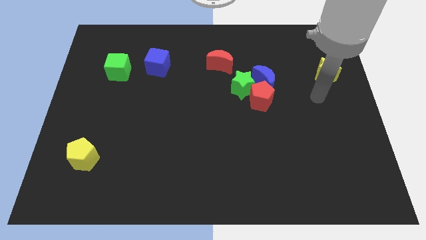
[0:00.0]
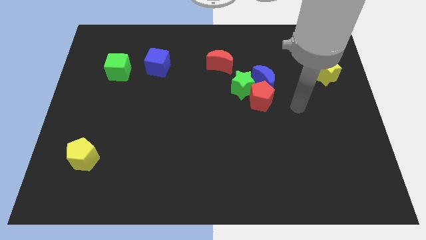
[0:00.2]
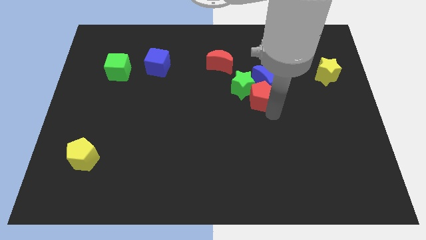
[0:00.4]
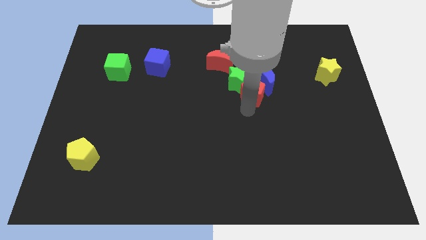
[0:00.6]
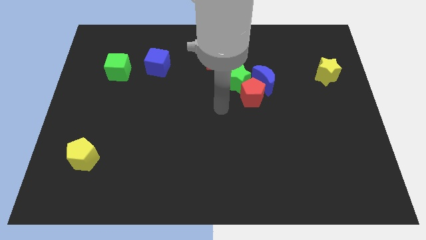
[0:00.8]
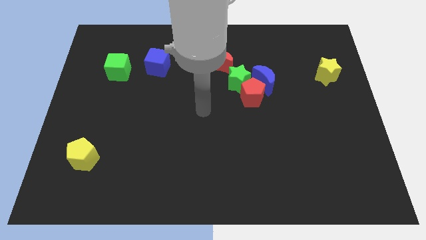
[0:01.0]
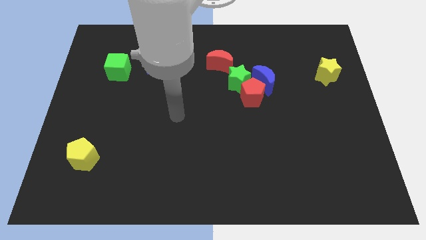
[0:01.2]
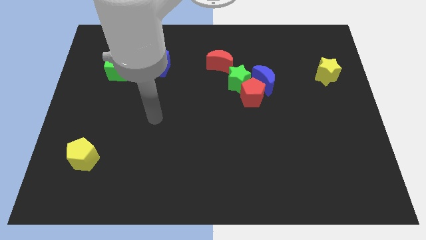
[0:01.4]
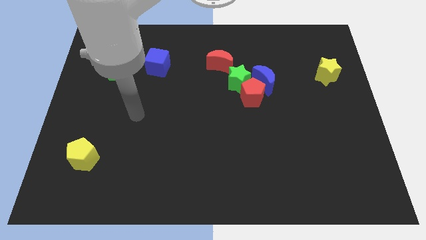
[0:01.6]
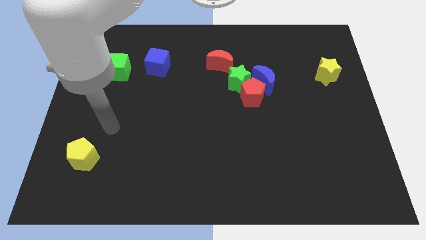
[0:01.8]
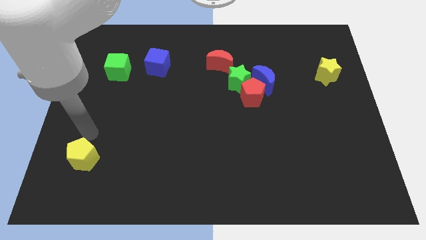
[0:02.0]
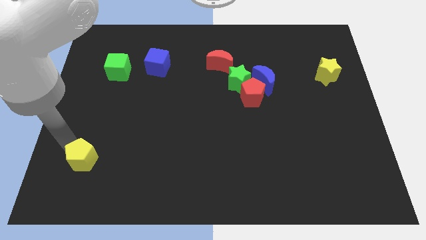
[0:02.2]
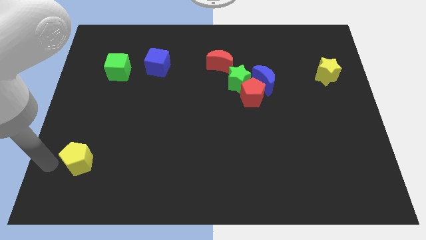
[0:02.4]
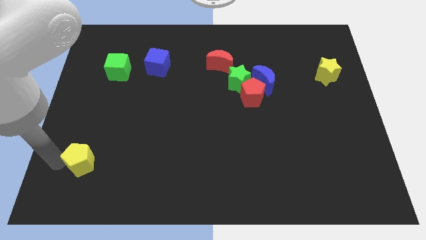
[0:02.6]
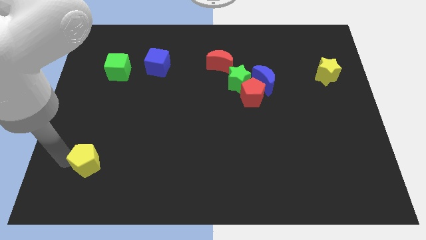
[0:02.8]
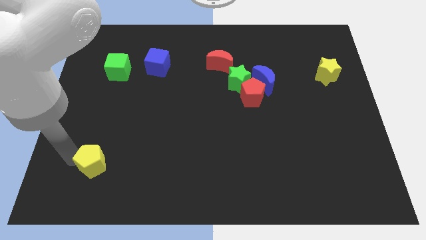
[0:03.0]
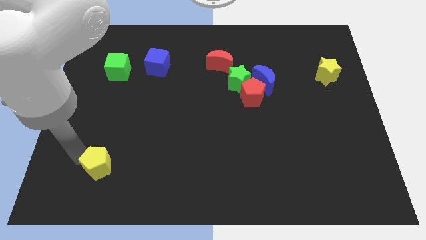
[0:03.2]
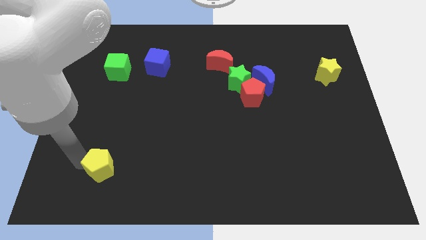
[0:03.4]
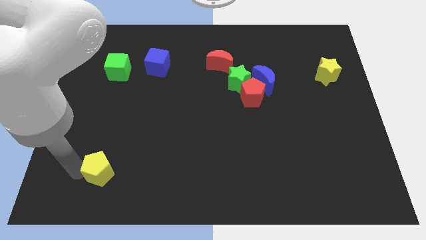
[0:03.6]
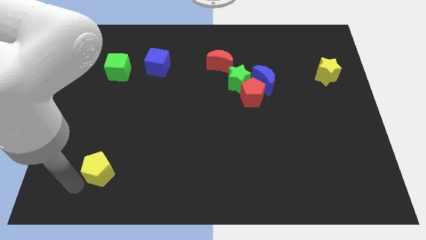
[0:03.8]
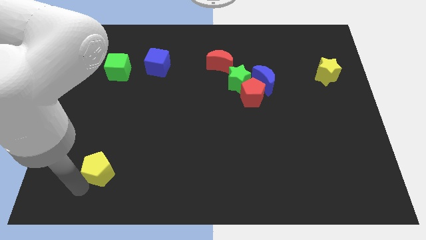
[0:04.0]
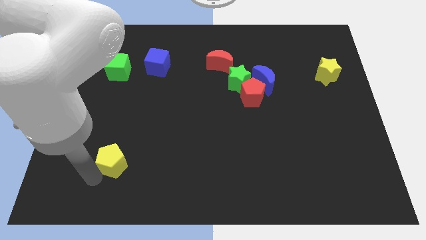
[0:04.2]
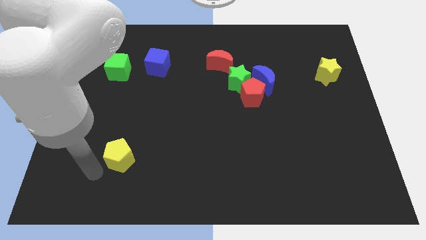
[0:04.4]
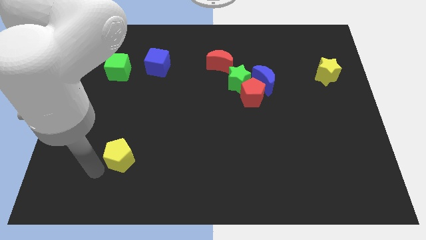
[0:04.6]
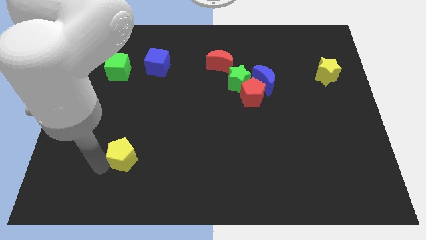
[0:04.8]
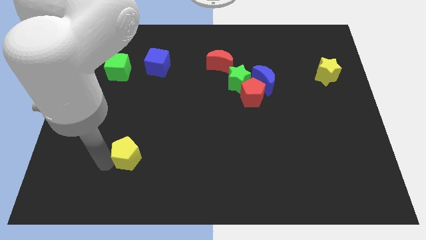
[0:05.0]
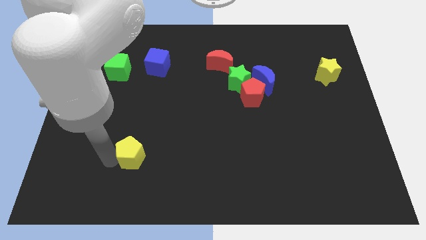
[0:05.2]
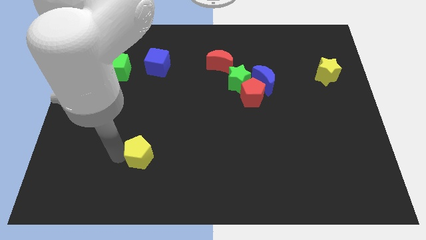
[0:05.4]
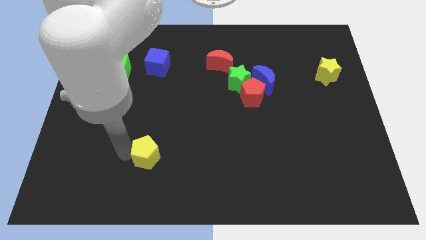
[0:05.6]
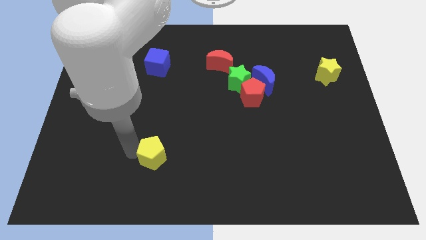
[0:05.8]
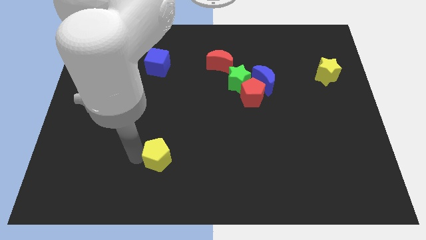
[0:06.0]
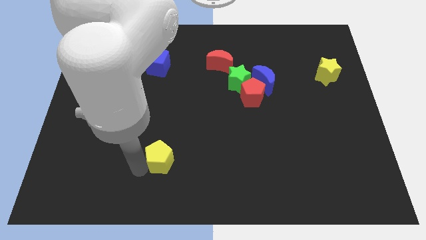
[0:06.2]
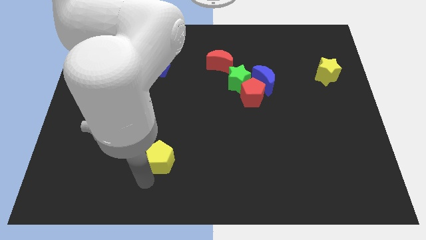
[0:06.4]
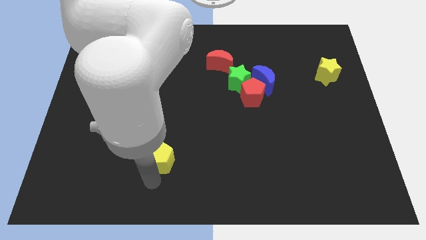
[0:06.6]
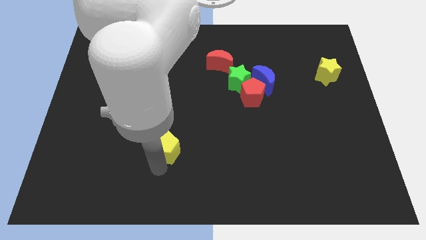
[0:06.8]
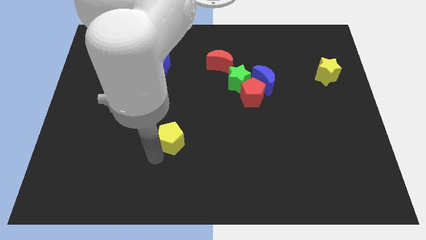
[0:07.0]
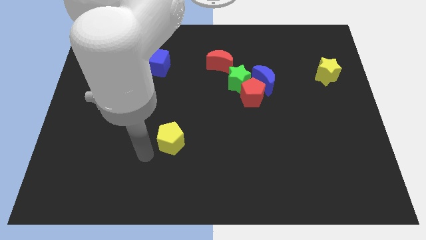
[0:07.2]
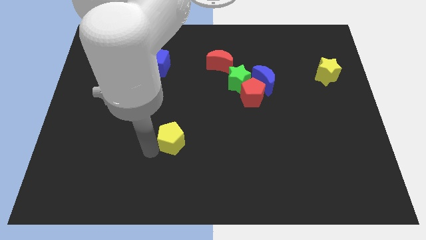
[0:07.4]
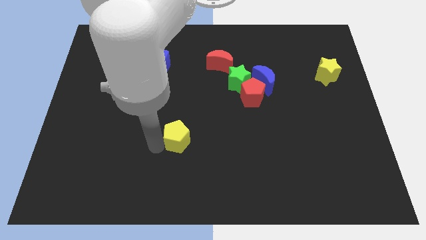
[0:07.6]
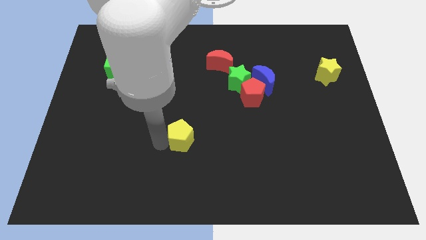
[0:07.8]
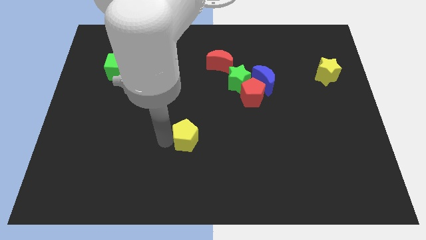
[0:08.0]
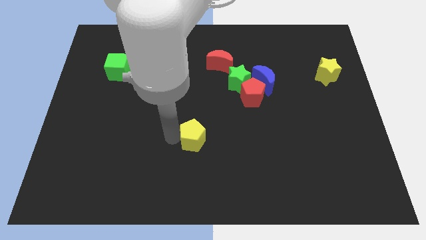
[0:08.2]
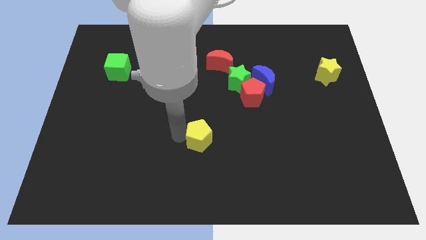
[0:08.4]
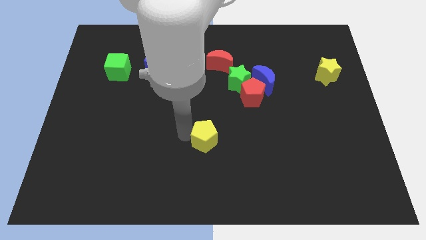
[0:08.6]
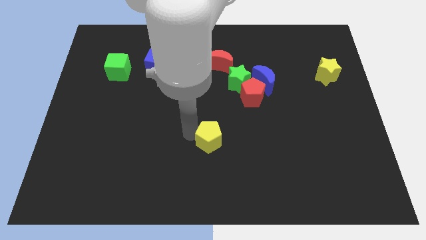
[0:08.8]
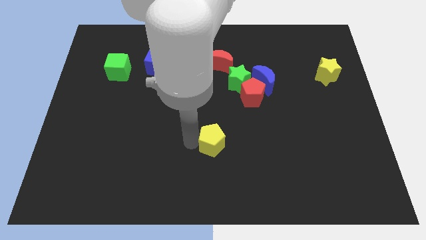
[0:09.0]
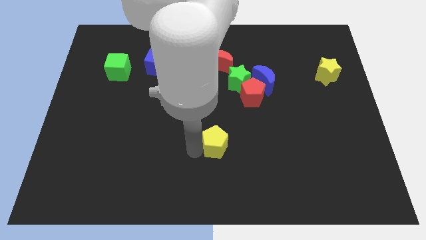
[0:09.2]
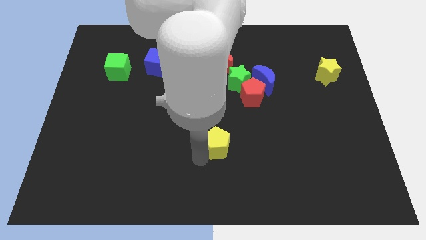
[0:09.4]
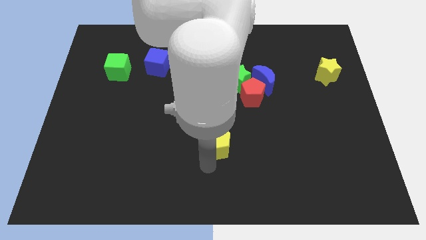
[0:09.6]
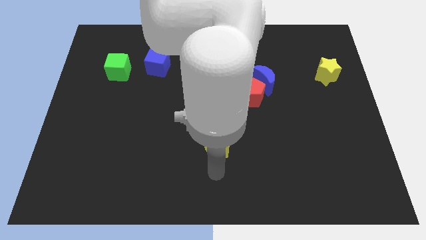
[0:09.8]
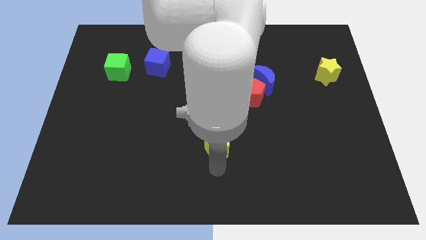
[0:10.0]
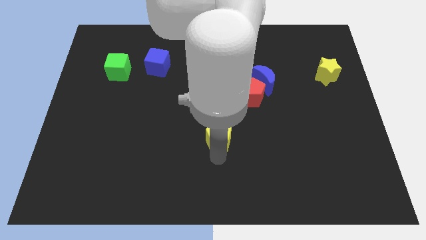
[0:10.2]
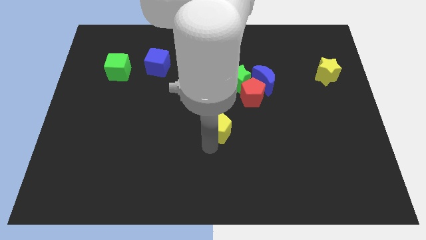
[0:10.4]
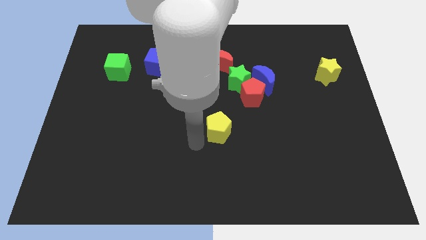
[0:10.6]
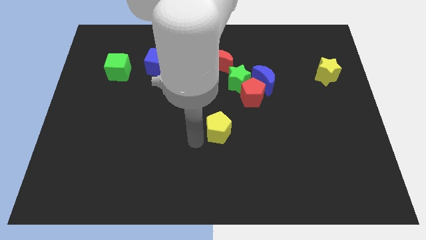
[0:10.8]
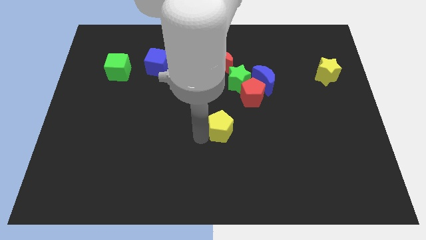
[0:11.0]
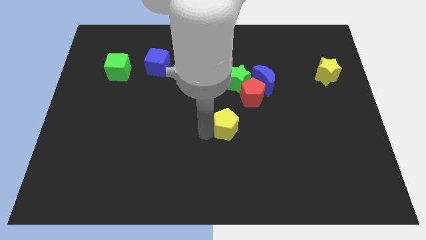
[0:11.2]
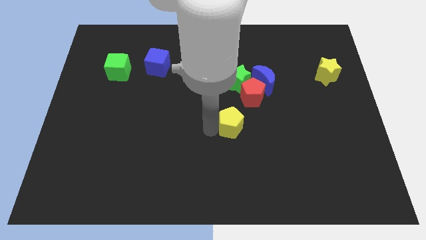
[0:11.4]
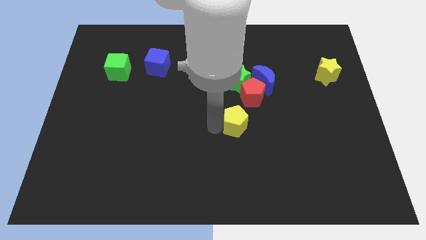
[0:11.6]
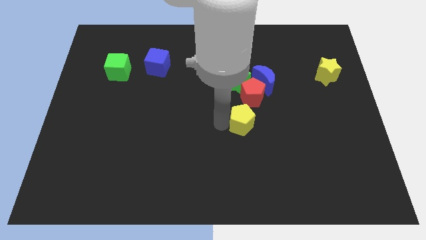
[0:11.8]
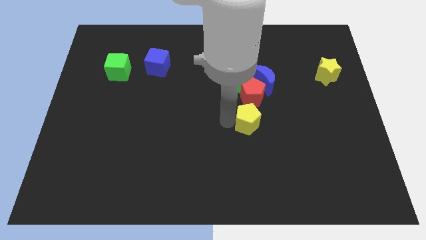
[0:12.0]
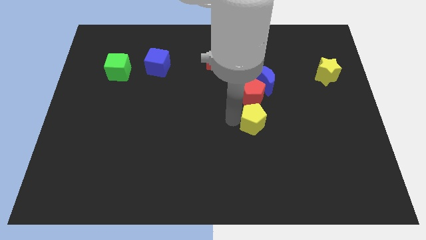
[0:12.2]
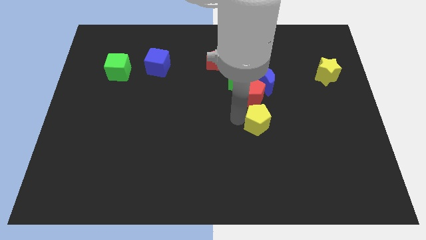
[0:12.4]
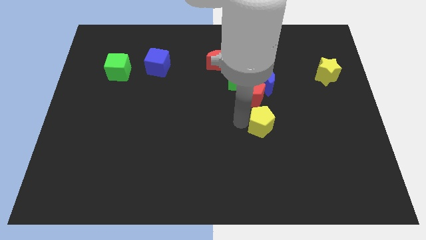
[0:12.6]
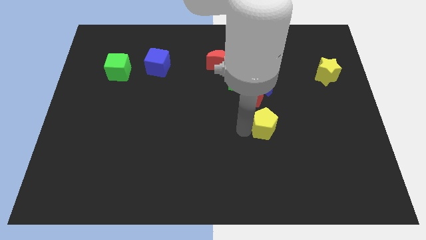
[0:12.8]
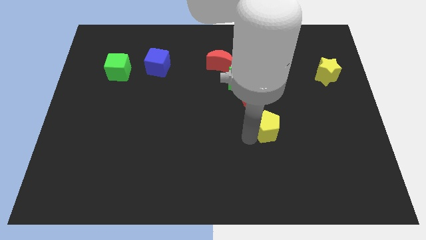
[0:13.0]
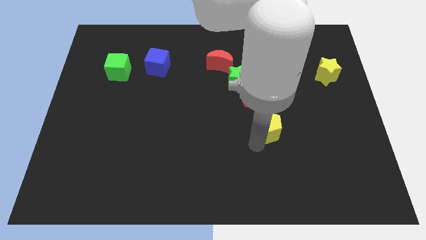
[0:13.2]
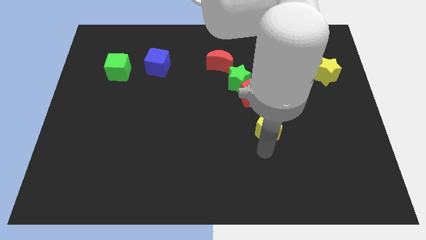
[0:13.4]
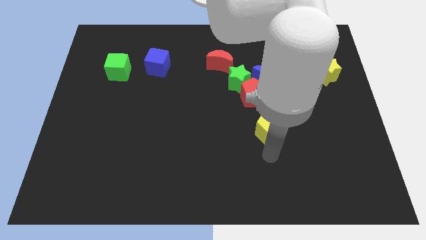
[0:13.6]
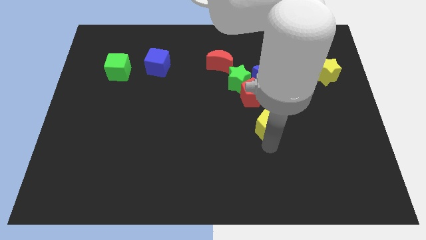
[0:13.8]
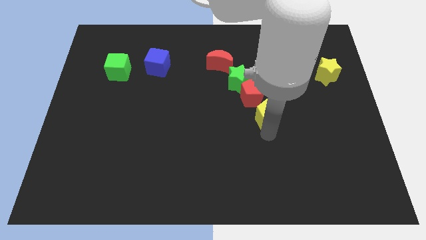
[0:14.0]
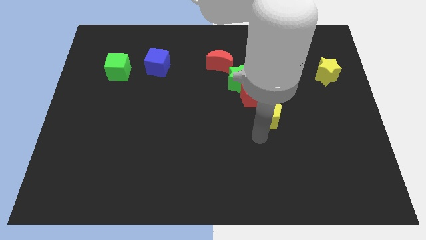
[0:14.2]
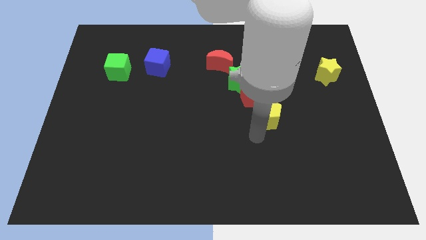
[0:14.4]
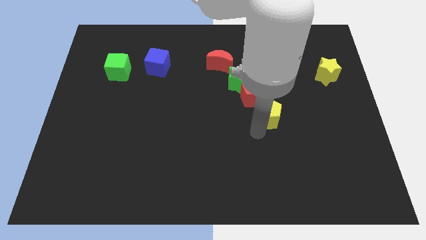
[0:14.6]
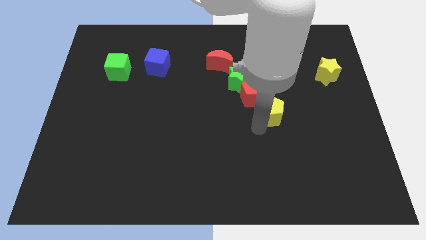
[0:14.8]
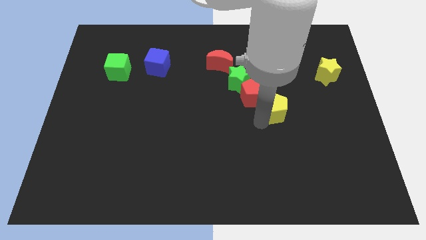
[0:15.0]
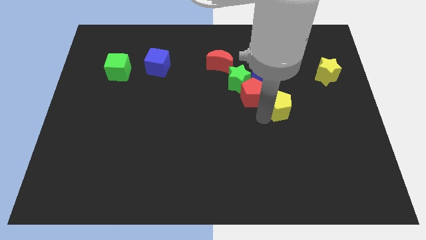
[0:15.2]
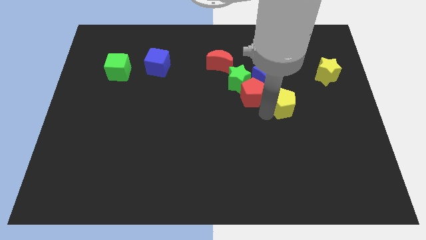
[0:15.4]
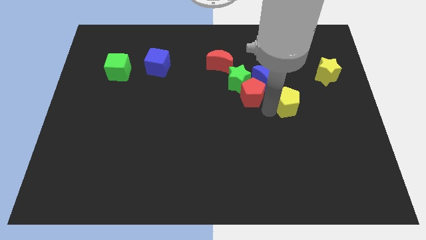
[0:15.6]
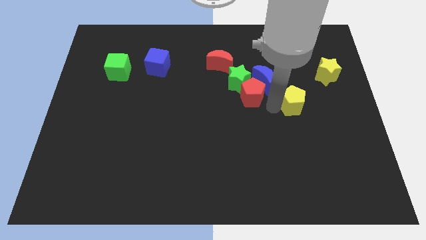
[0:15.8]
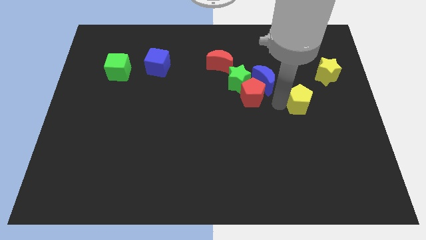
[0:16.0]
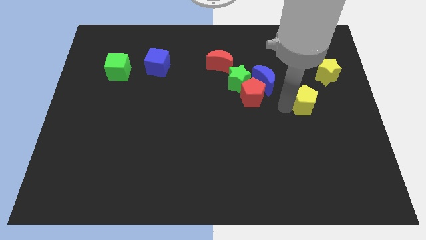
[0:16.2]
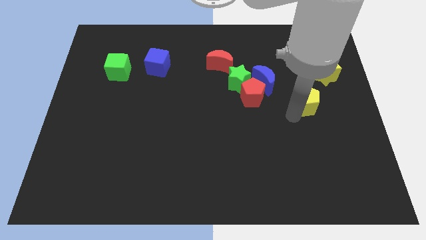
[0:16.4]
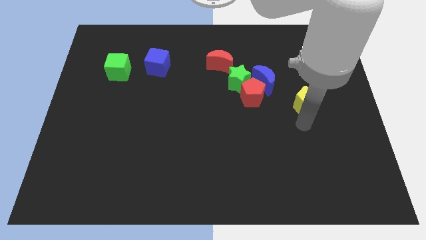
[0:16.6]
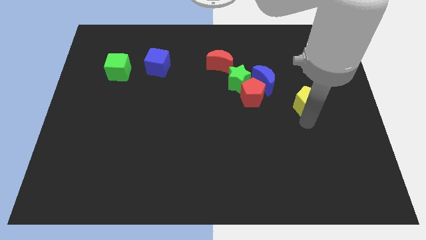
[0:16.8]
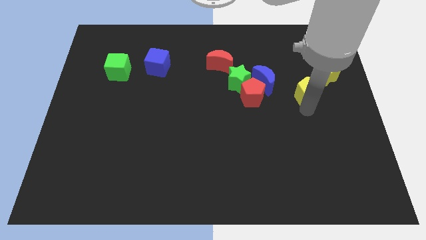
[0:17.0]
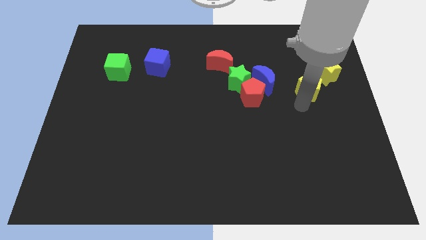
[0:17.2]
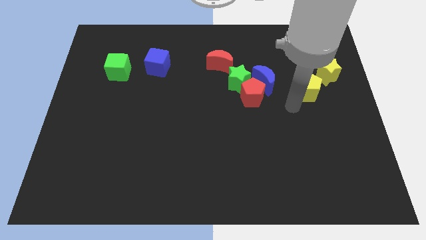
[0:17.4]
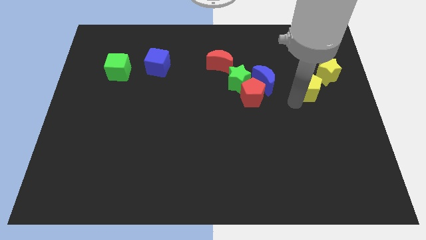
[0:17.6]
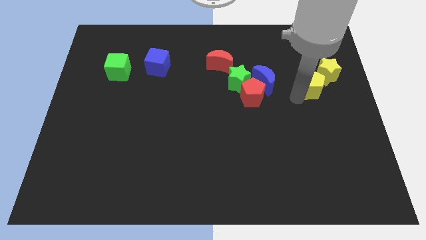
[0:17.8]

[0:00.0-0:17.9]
push the yellow pentagon to the yellow star
